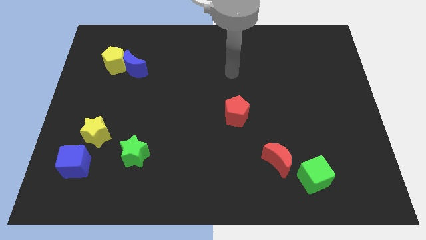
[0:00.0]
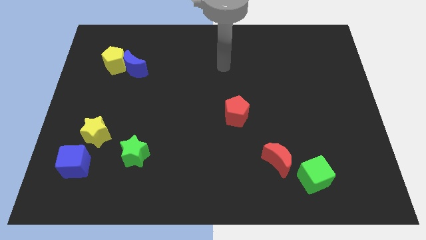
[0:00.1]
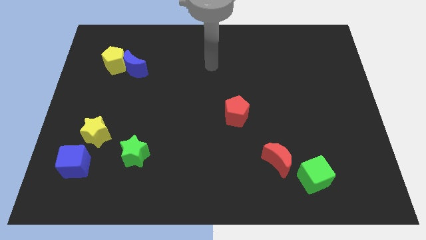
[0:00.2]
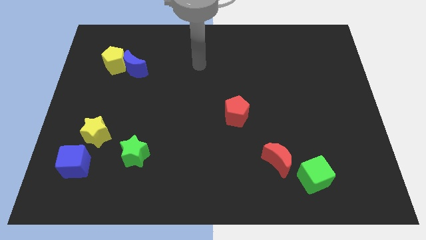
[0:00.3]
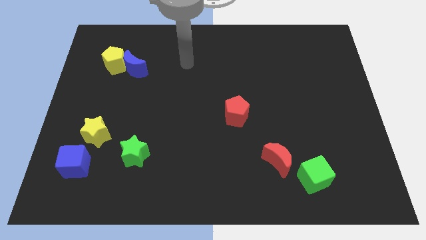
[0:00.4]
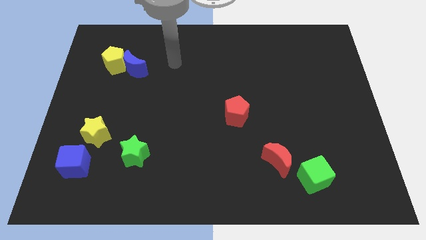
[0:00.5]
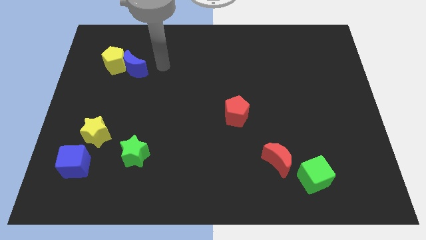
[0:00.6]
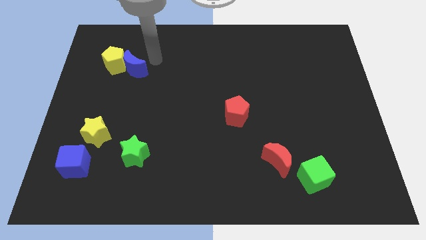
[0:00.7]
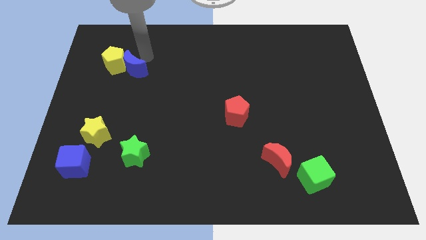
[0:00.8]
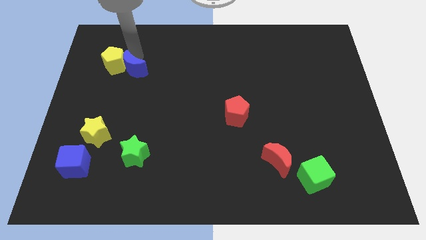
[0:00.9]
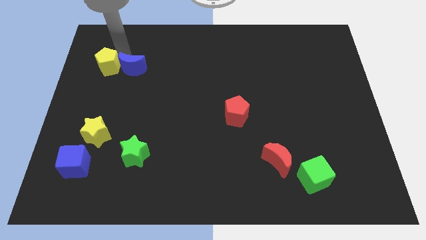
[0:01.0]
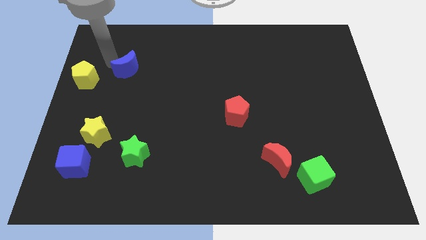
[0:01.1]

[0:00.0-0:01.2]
pull the blue moon apart from the yellow pentagon

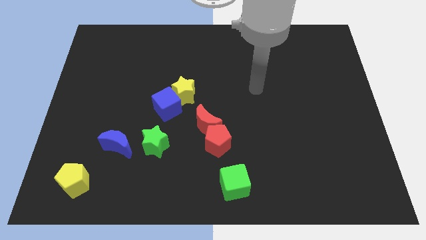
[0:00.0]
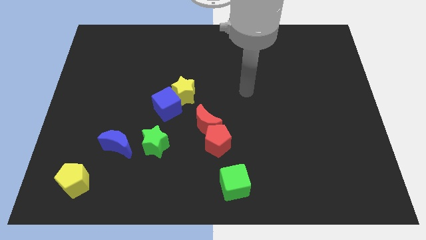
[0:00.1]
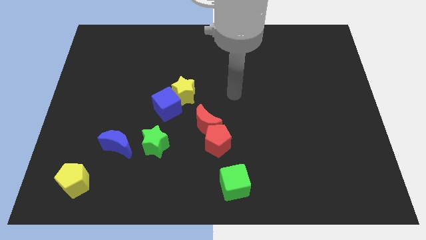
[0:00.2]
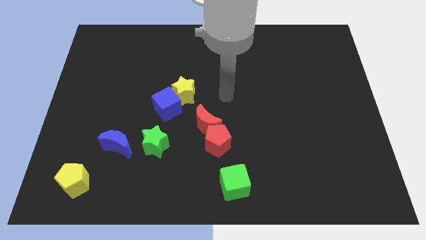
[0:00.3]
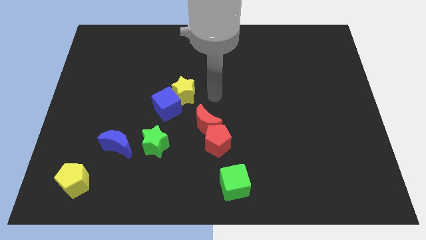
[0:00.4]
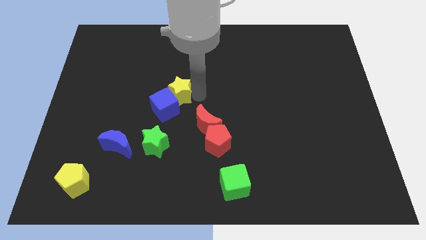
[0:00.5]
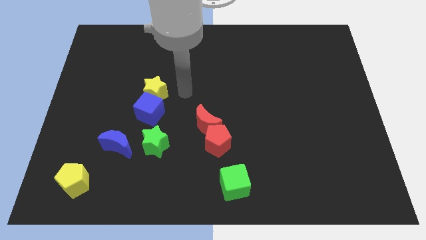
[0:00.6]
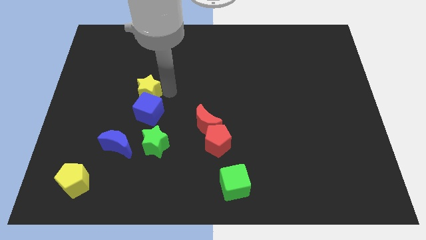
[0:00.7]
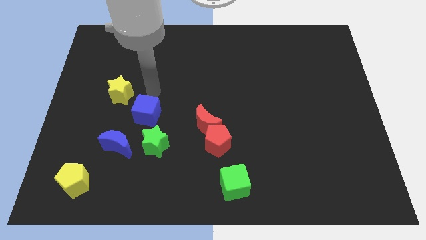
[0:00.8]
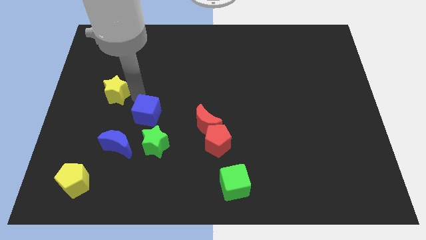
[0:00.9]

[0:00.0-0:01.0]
move the blue cube away from the yellow star

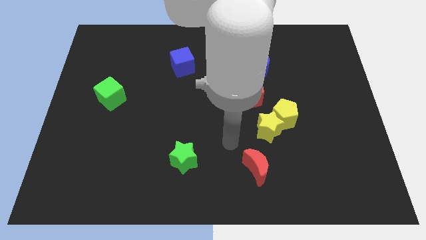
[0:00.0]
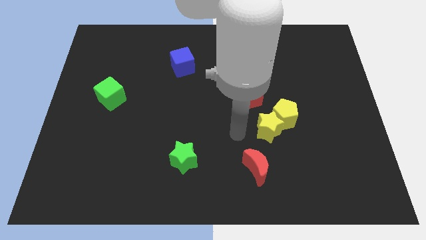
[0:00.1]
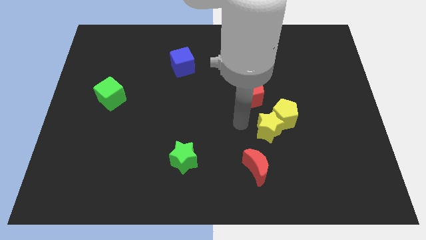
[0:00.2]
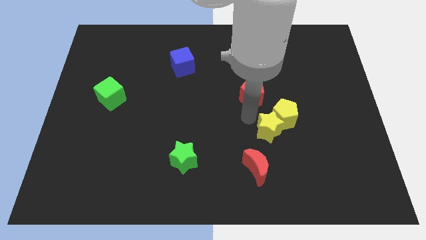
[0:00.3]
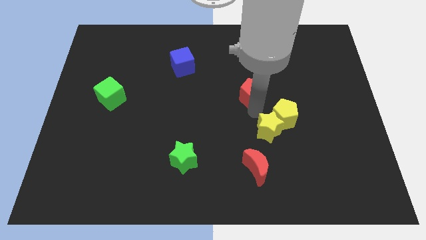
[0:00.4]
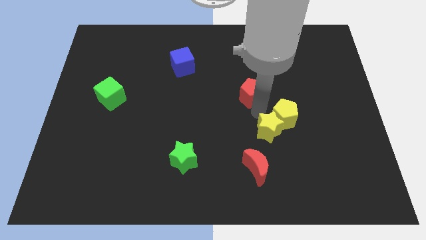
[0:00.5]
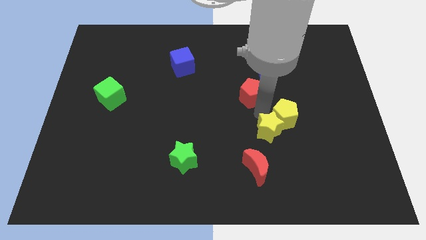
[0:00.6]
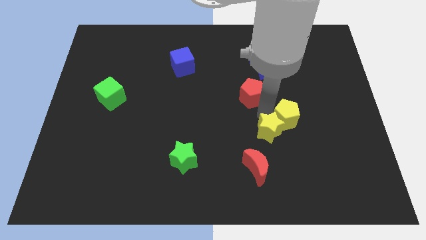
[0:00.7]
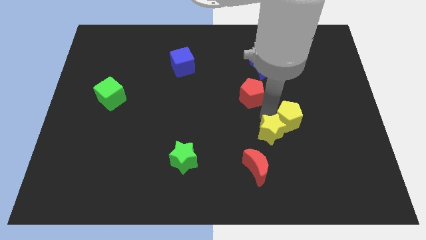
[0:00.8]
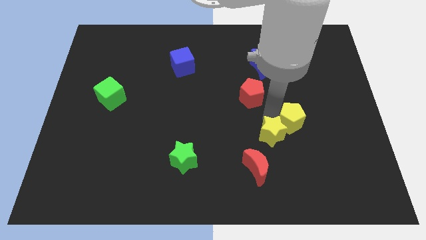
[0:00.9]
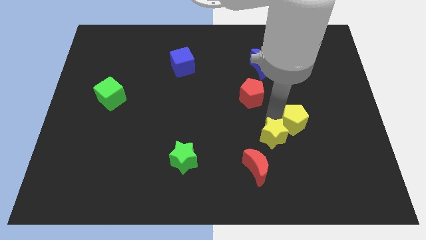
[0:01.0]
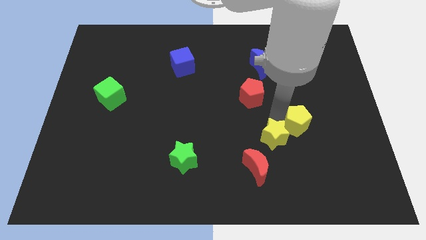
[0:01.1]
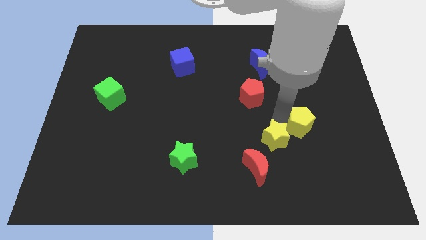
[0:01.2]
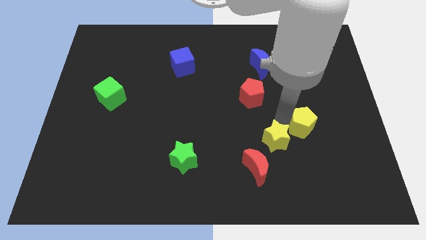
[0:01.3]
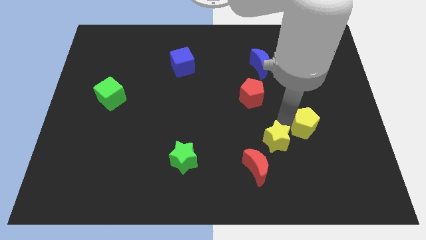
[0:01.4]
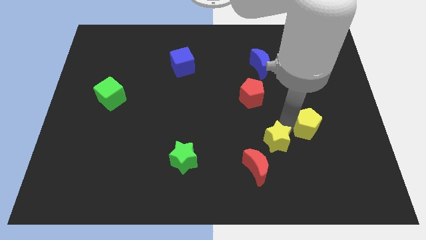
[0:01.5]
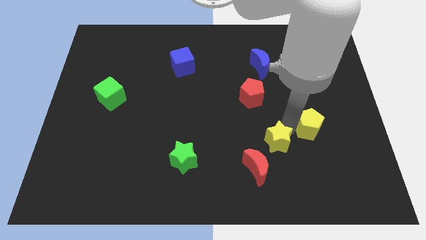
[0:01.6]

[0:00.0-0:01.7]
pull the yellow pentagon apart from the yellow star and red pentagon

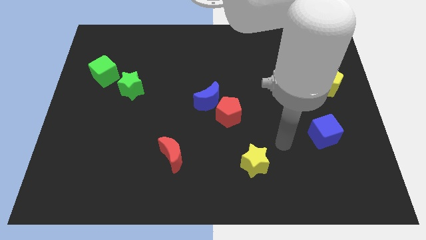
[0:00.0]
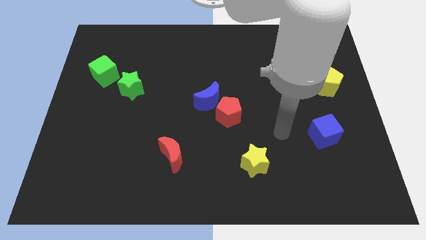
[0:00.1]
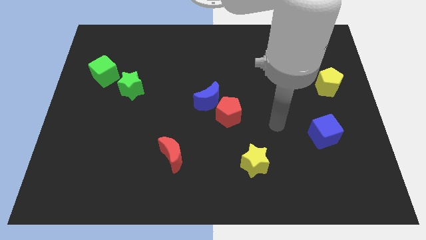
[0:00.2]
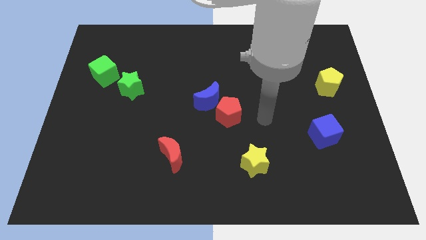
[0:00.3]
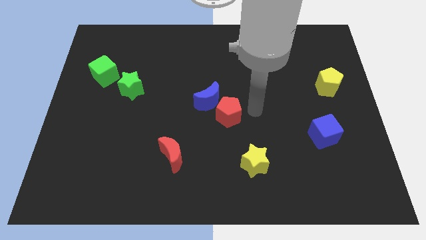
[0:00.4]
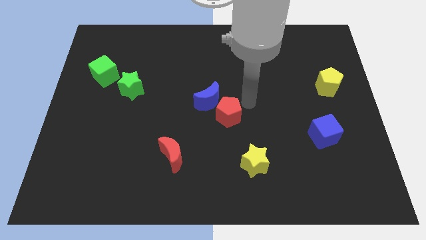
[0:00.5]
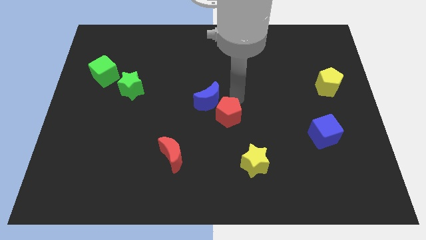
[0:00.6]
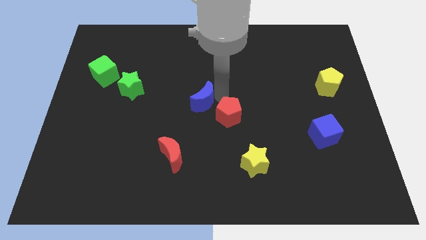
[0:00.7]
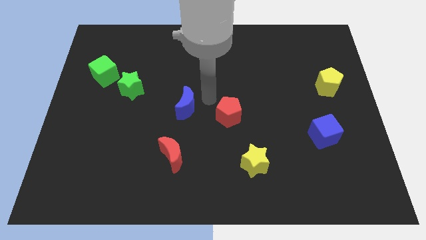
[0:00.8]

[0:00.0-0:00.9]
separate the red pentagon from the blue moon

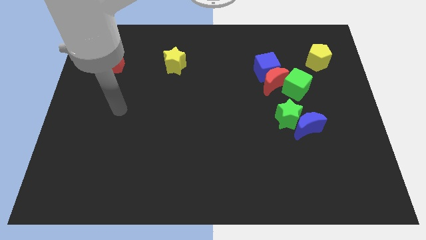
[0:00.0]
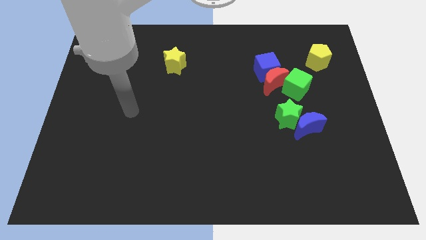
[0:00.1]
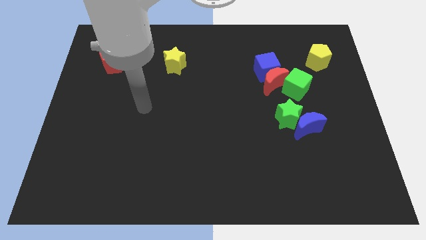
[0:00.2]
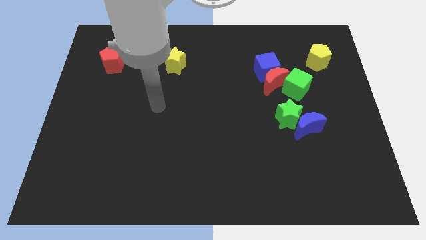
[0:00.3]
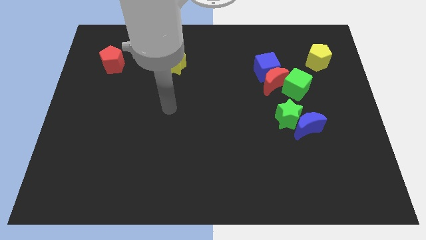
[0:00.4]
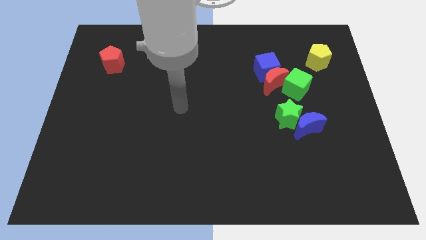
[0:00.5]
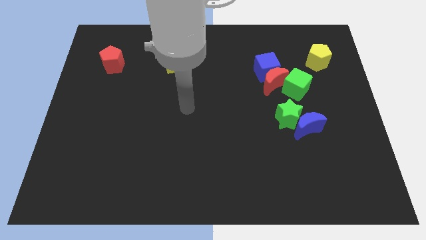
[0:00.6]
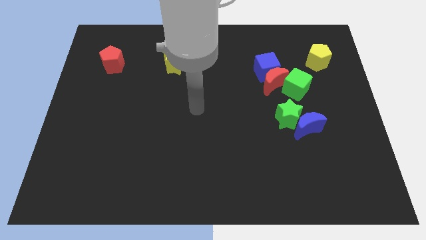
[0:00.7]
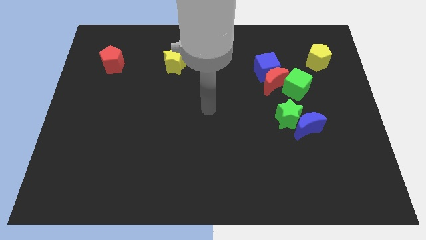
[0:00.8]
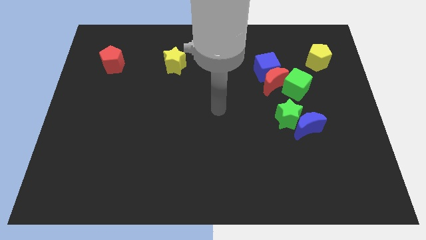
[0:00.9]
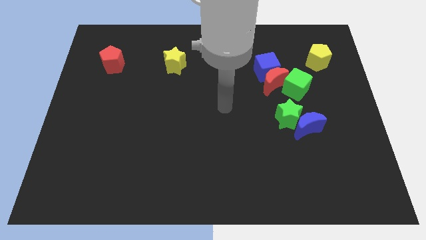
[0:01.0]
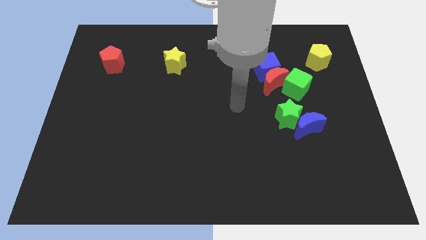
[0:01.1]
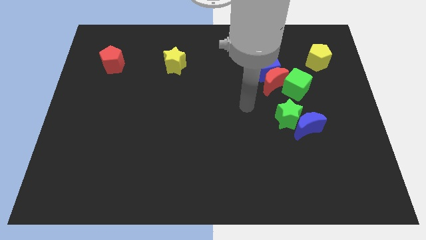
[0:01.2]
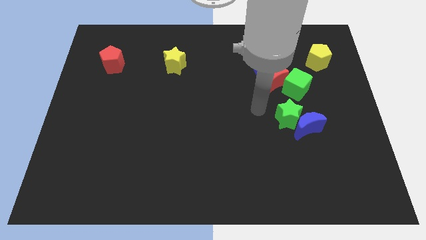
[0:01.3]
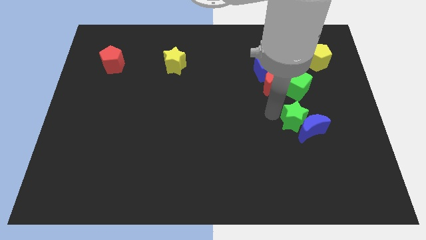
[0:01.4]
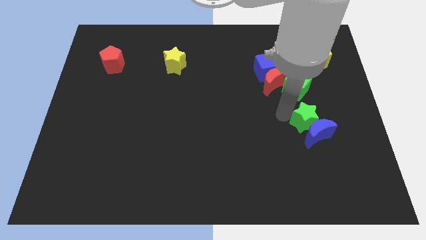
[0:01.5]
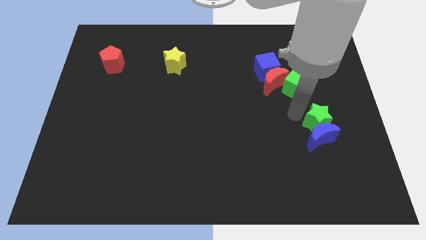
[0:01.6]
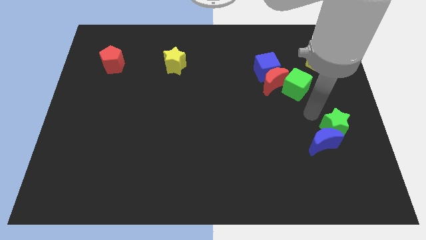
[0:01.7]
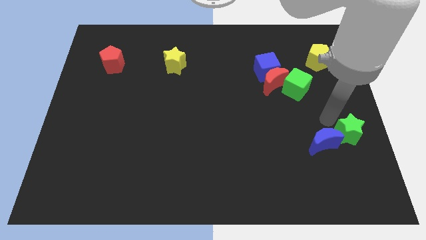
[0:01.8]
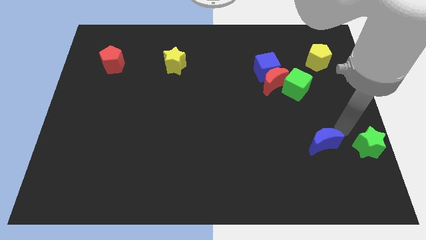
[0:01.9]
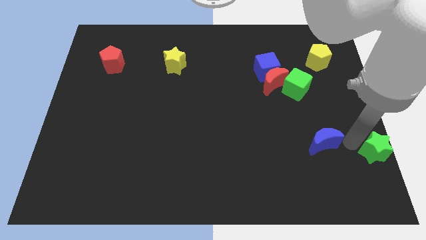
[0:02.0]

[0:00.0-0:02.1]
pull the blue moon apart from the green star

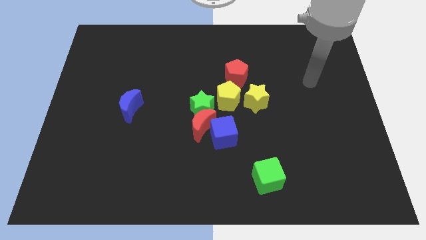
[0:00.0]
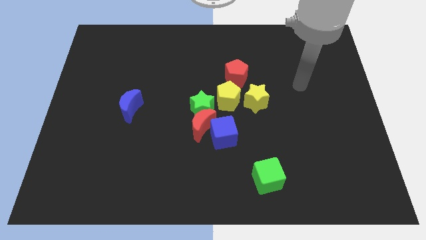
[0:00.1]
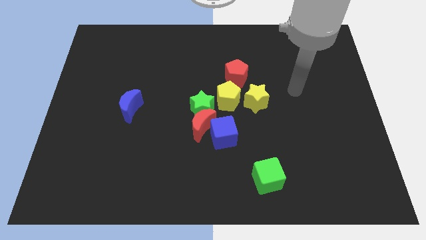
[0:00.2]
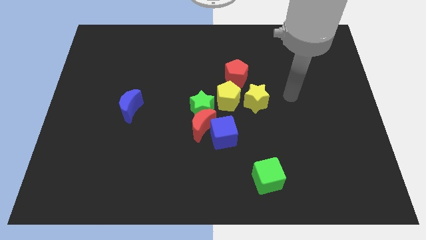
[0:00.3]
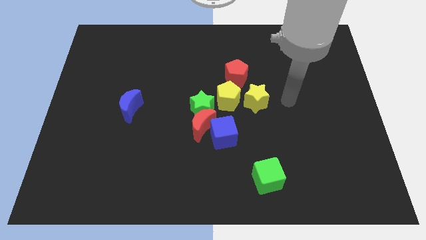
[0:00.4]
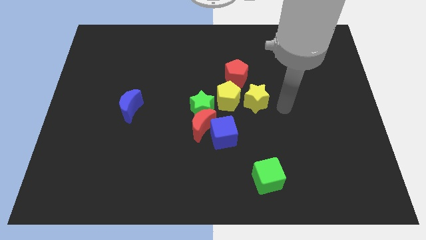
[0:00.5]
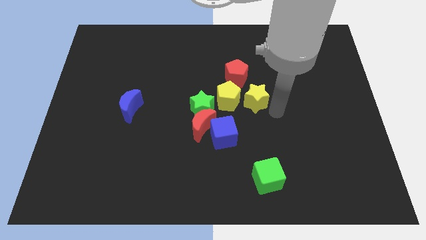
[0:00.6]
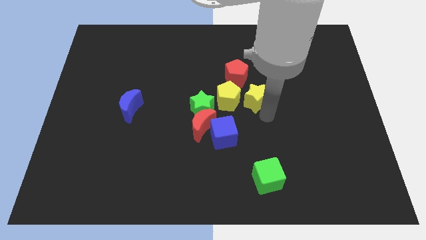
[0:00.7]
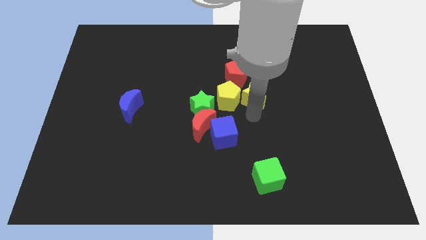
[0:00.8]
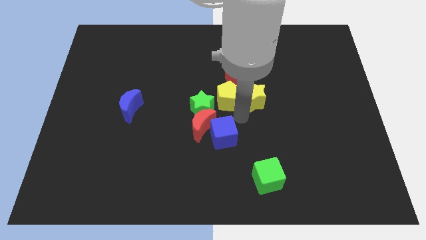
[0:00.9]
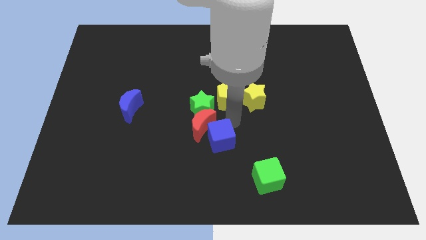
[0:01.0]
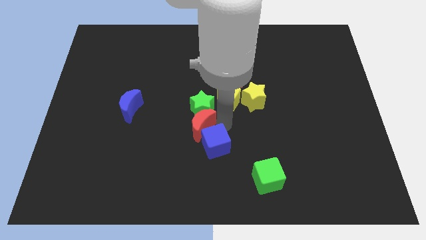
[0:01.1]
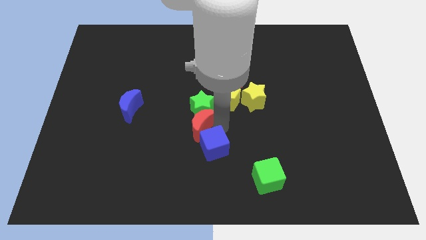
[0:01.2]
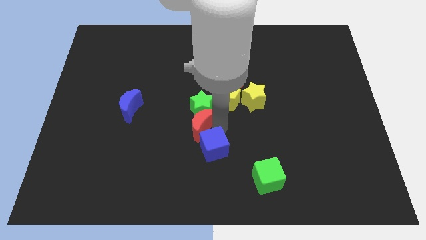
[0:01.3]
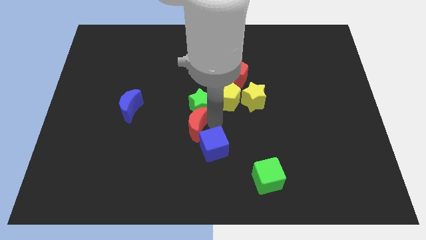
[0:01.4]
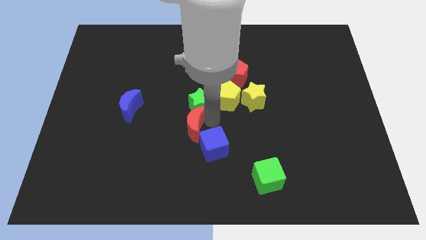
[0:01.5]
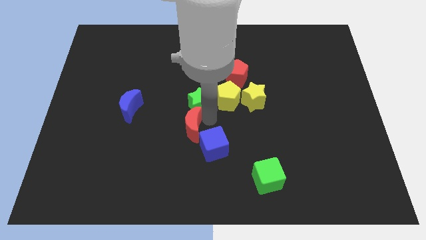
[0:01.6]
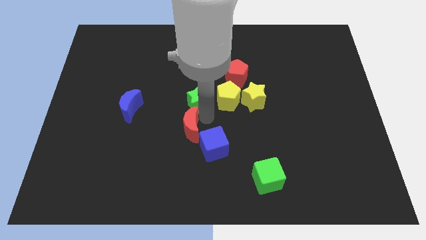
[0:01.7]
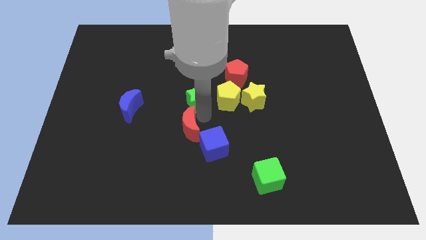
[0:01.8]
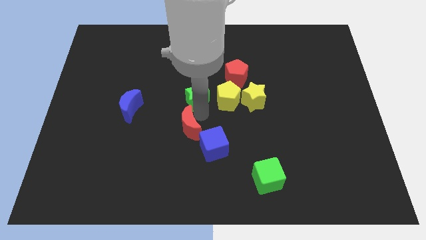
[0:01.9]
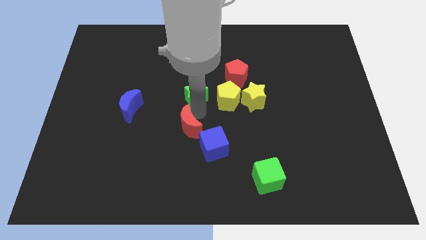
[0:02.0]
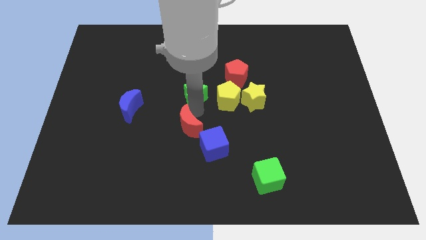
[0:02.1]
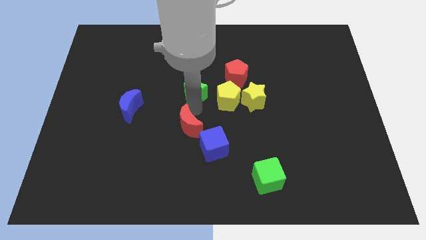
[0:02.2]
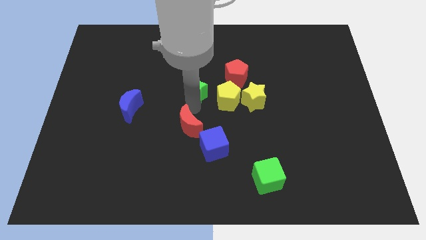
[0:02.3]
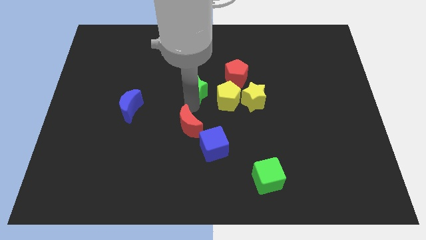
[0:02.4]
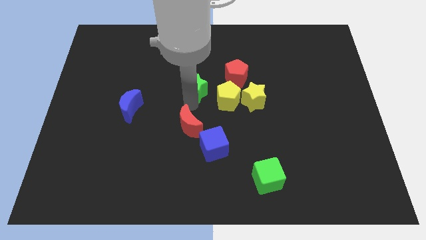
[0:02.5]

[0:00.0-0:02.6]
move the green star away from the group
